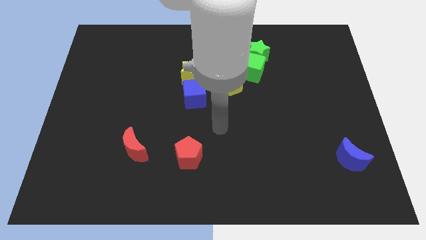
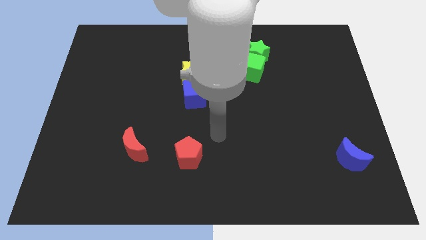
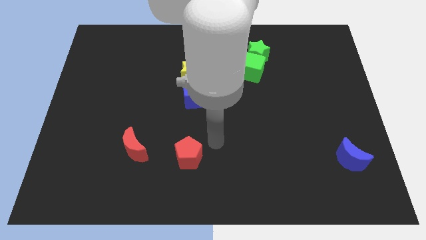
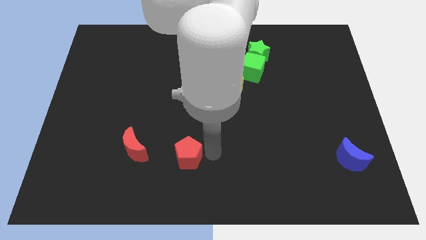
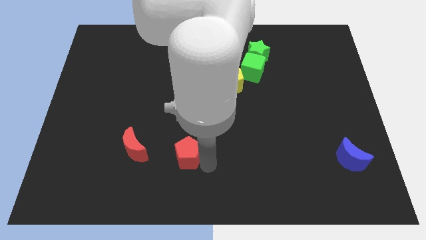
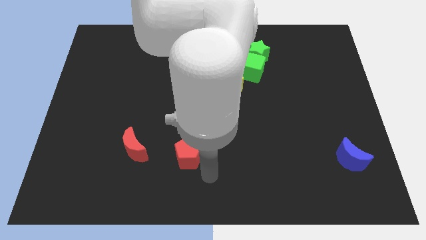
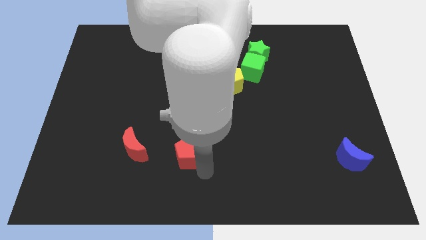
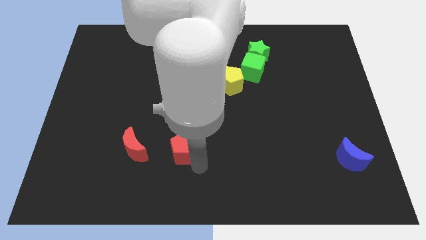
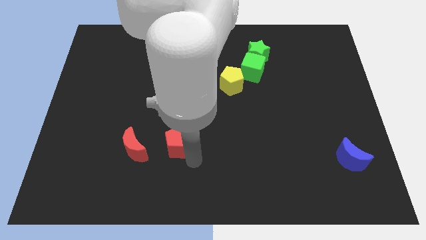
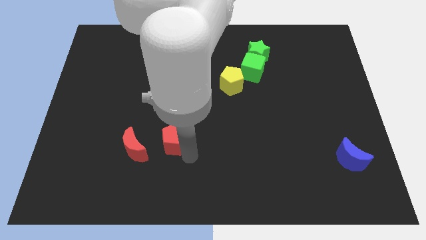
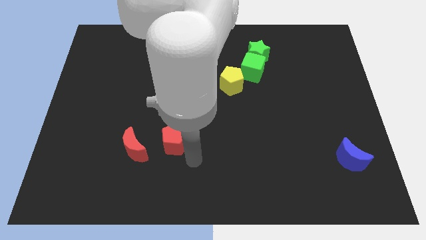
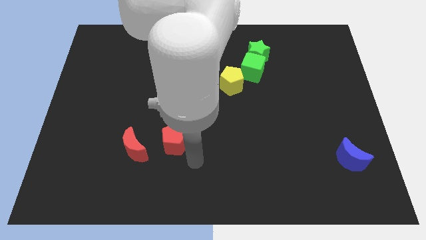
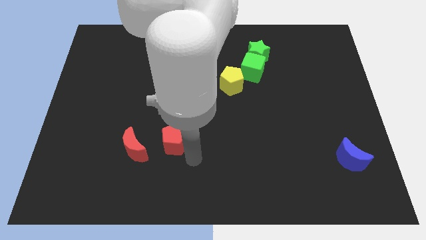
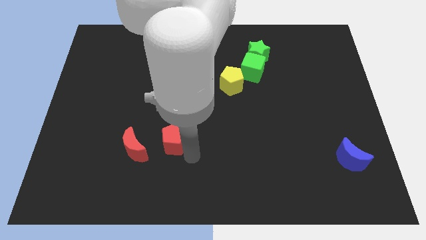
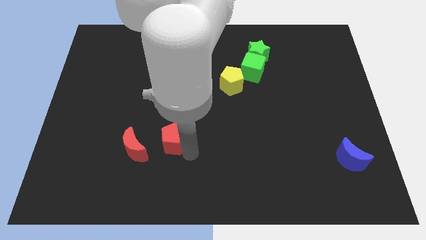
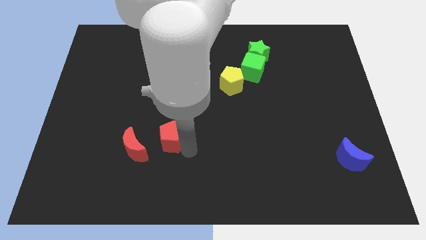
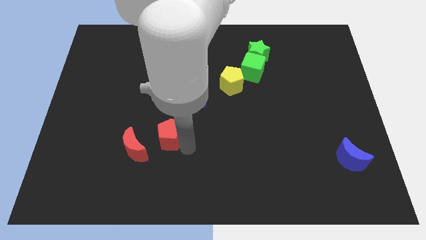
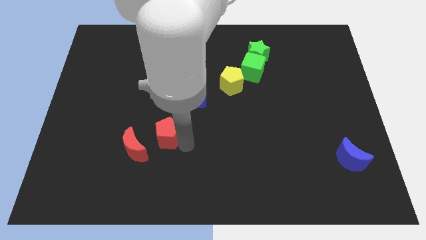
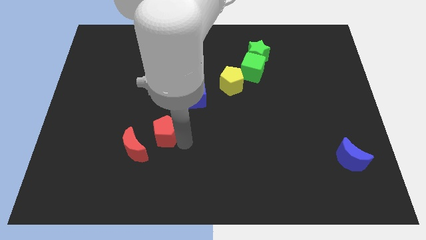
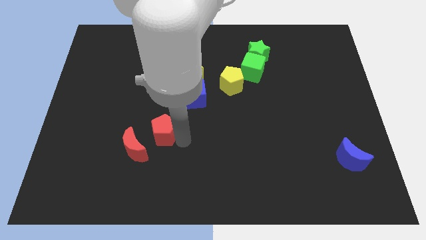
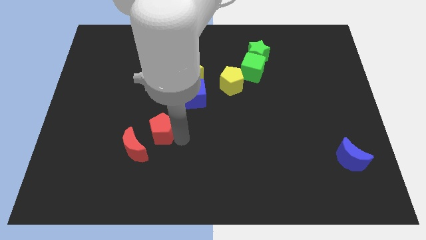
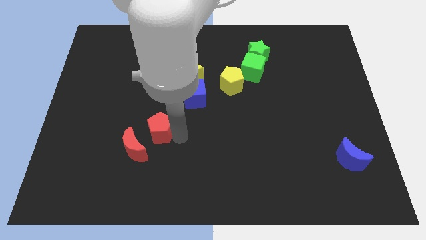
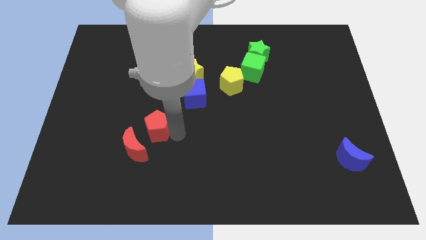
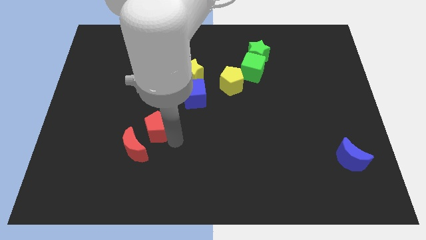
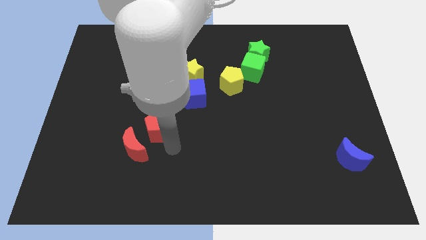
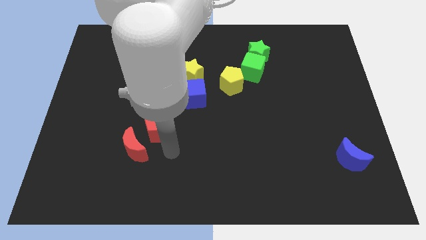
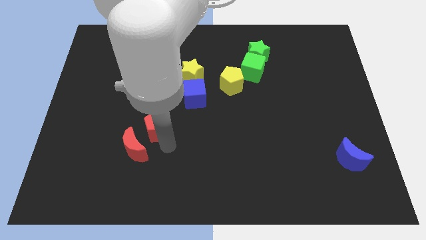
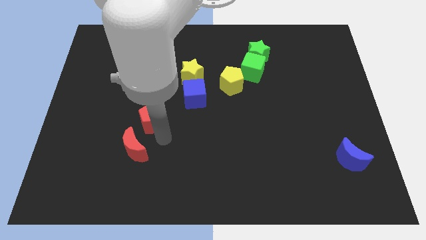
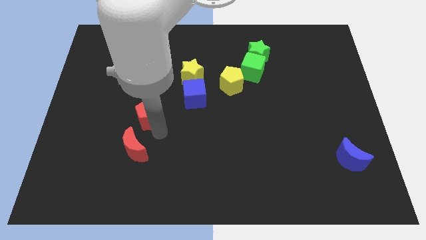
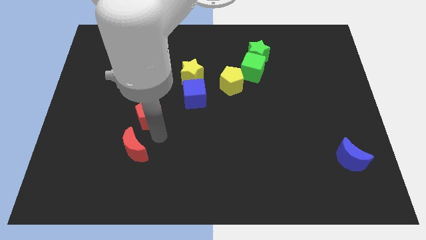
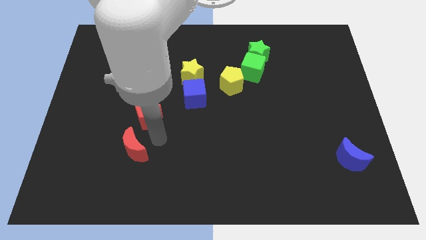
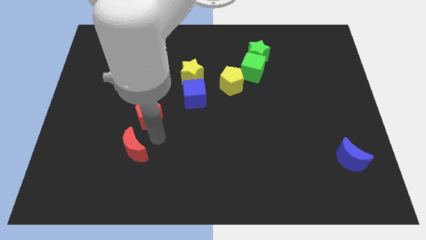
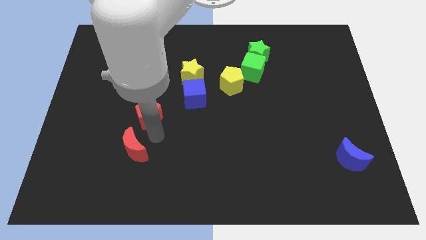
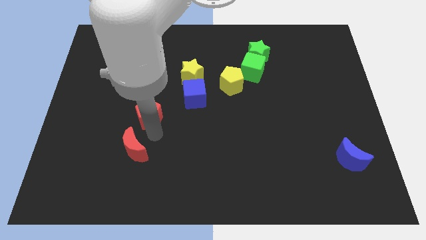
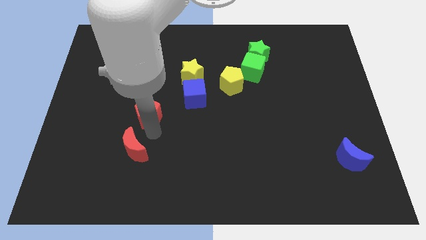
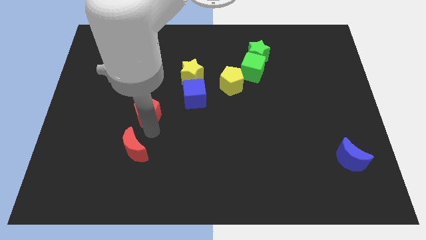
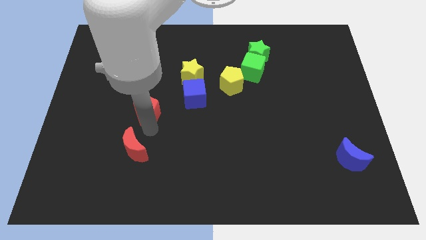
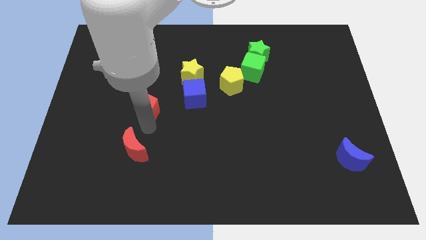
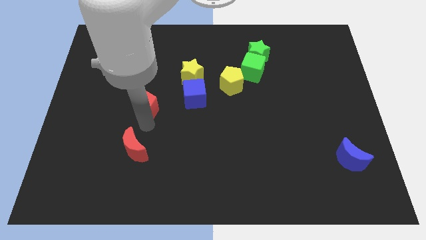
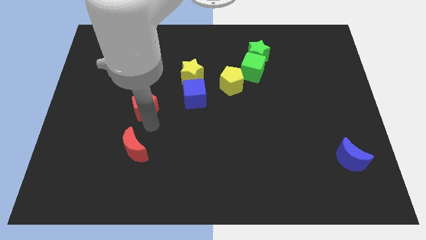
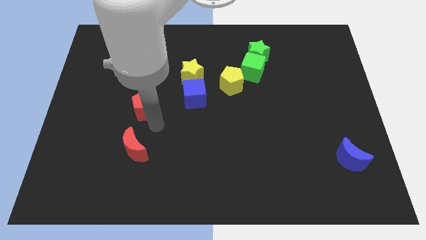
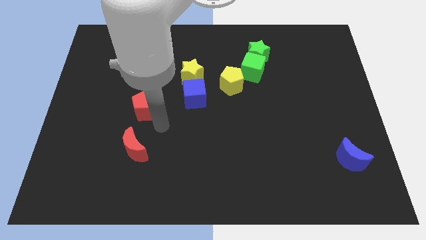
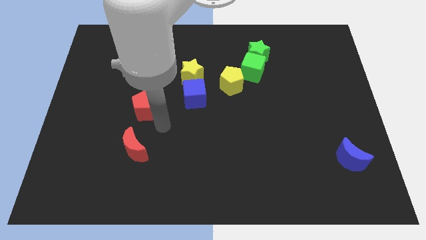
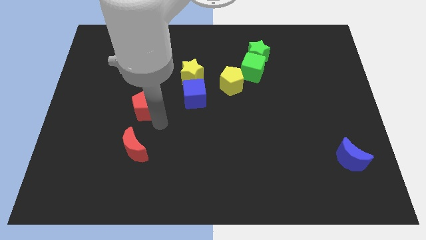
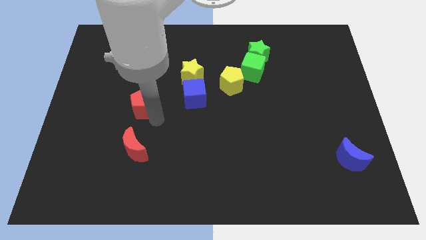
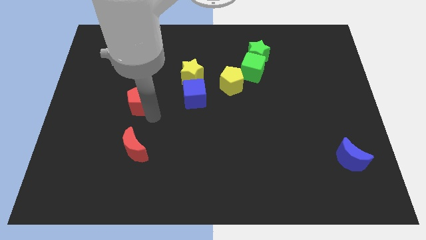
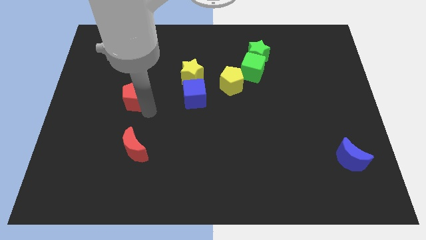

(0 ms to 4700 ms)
push the red pentagon upwards and to the left diagonally

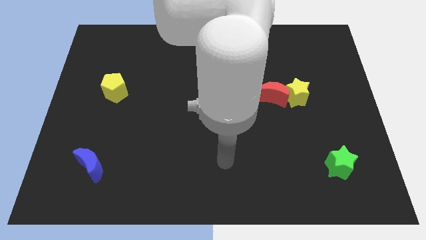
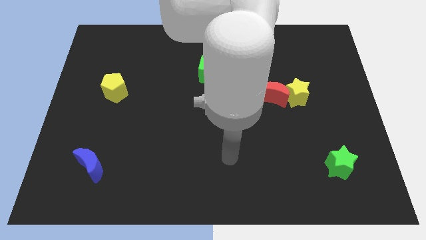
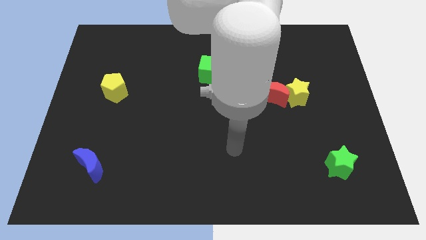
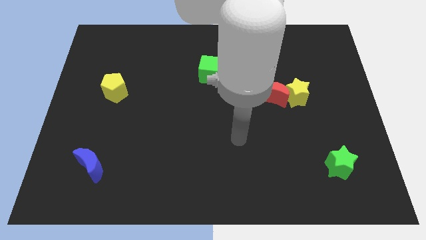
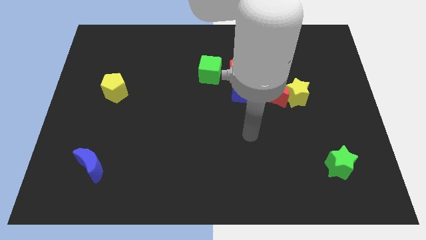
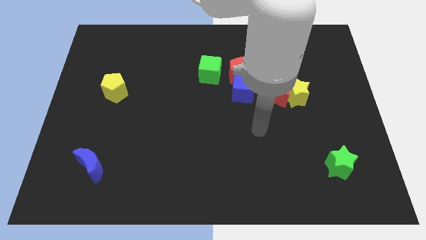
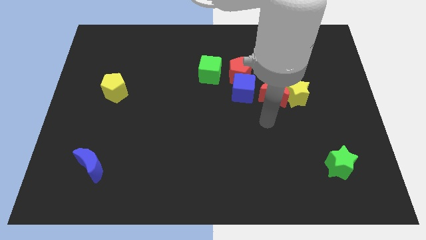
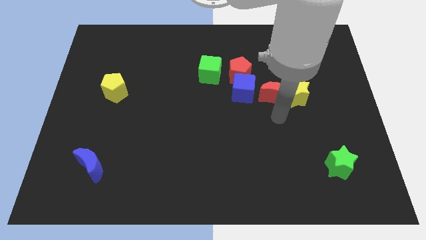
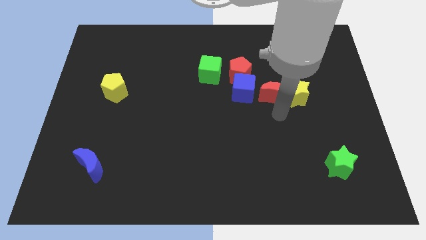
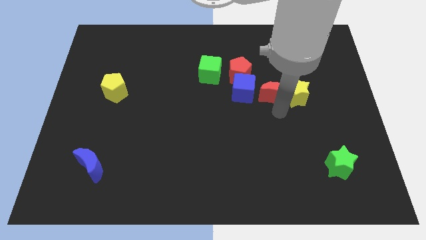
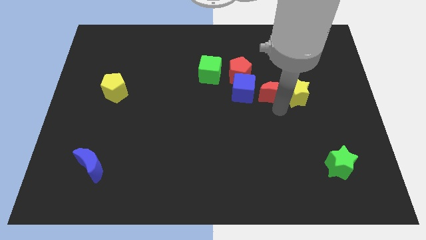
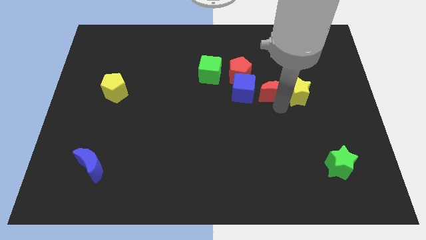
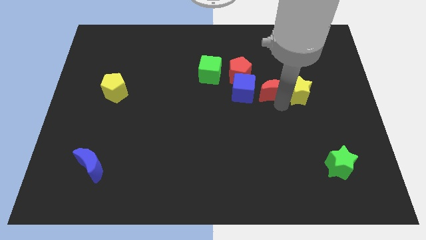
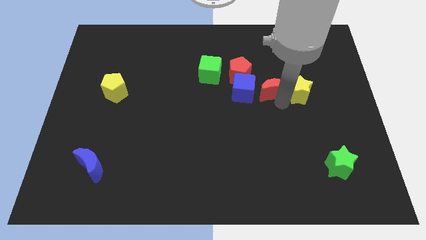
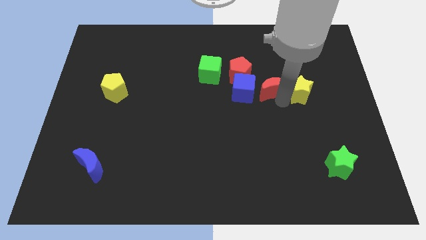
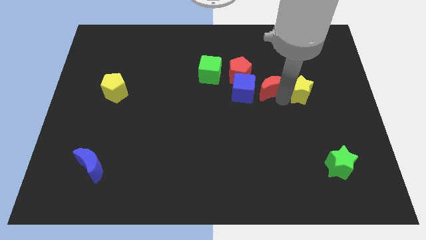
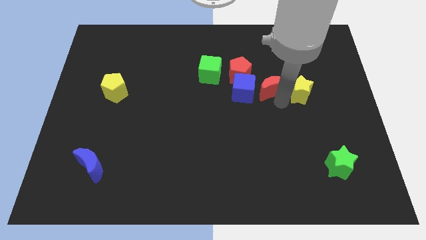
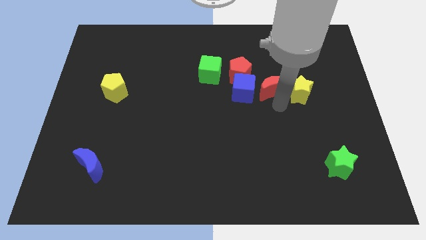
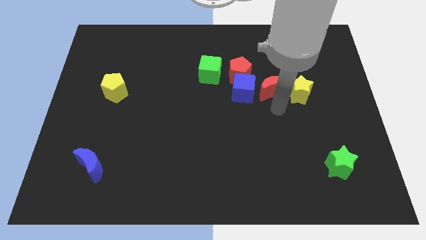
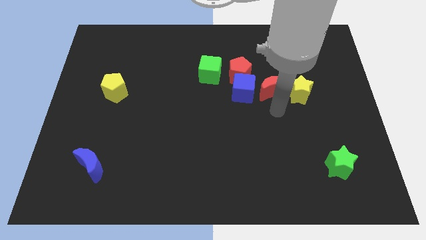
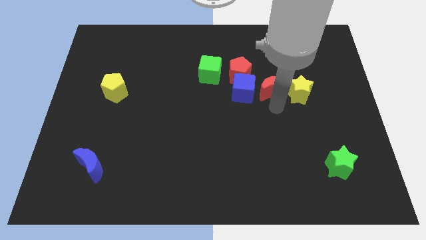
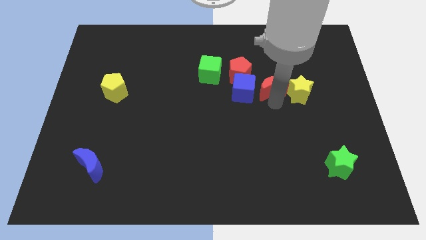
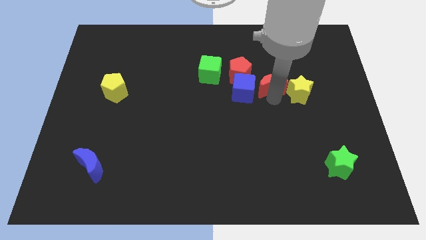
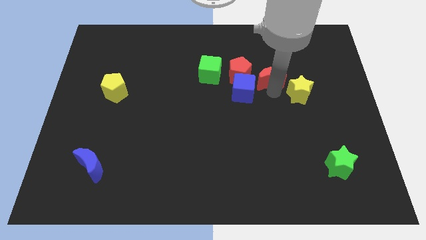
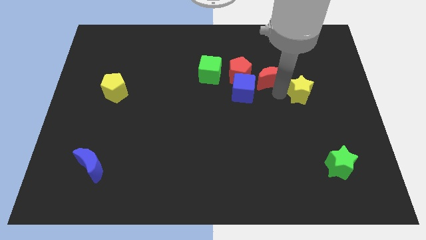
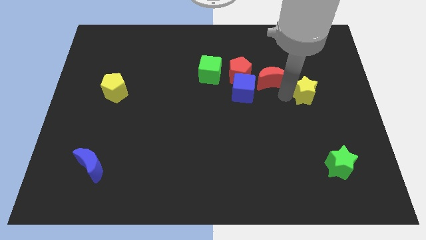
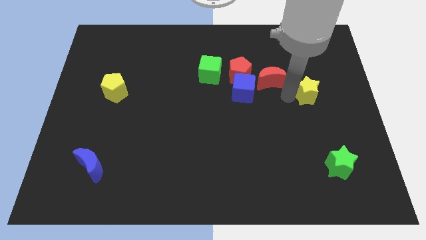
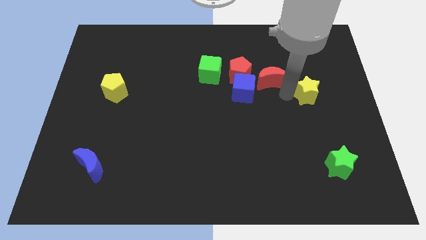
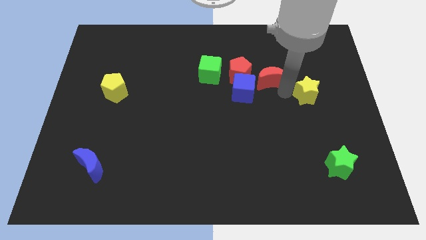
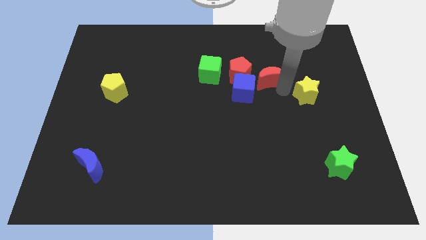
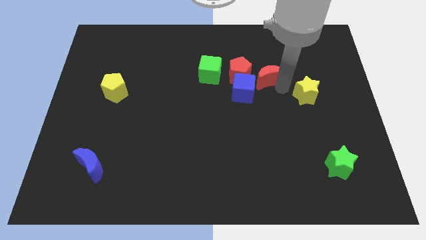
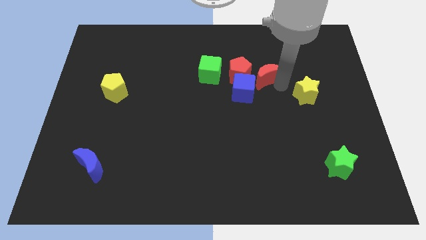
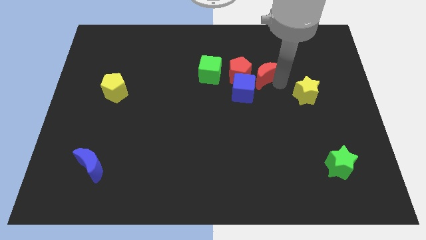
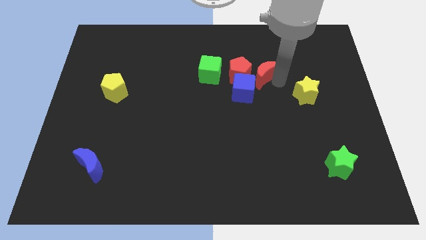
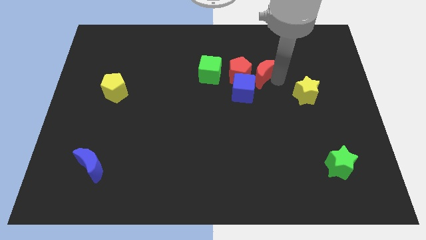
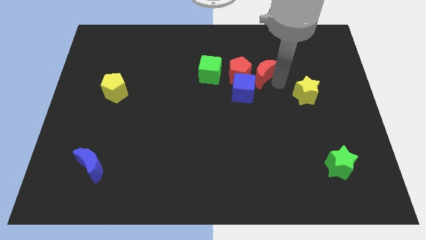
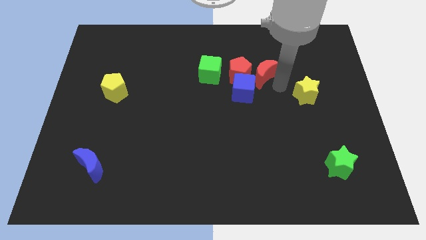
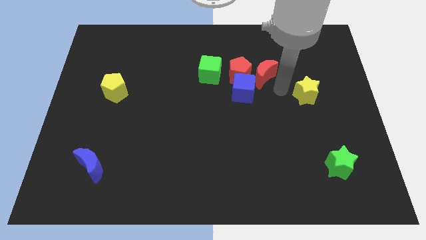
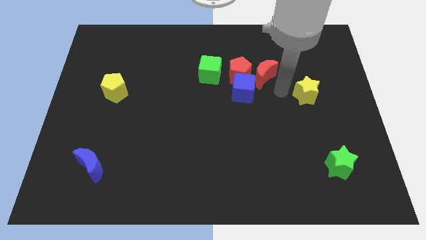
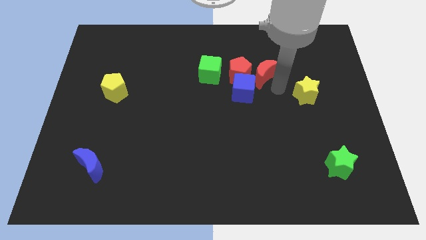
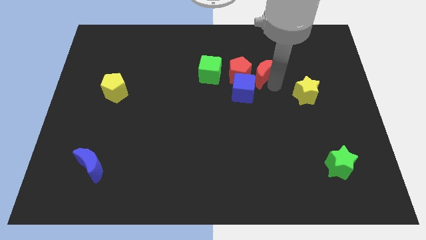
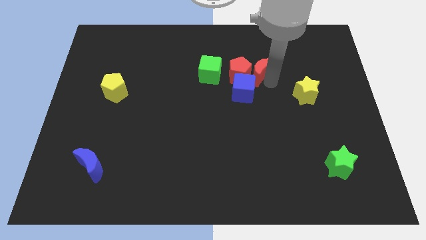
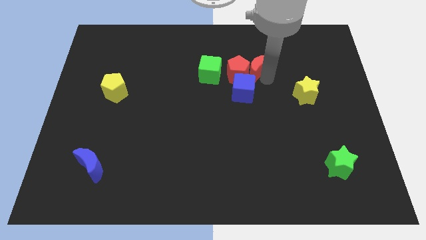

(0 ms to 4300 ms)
slightly push the red moon upwards and to the left diagonally
